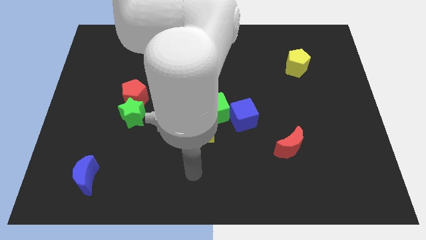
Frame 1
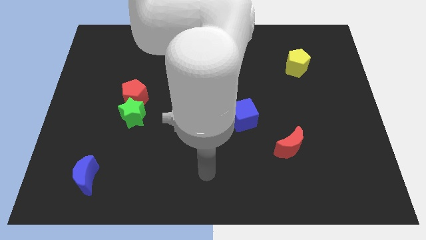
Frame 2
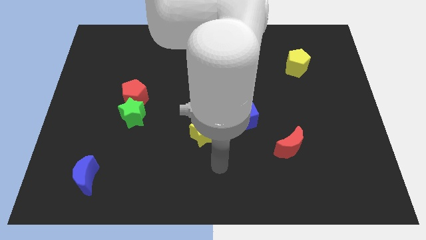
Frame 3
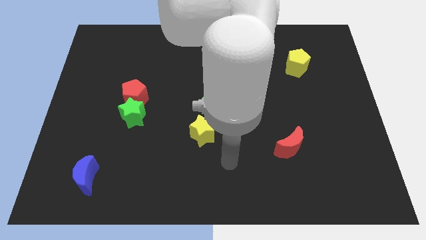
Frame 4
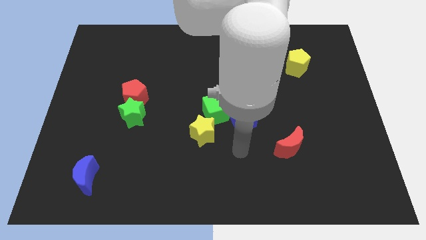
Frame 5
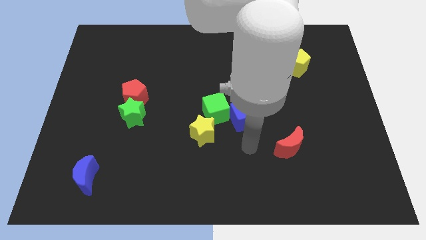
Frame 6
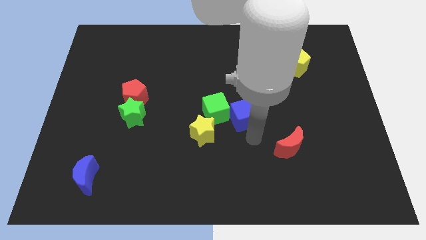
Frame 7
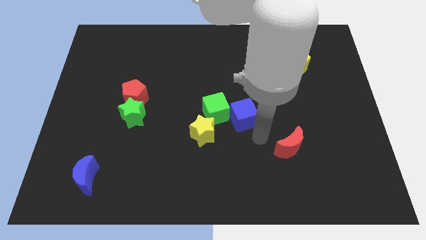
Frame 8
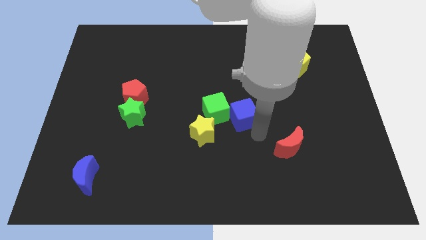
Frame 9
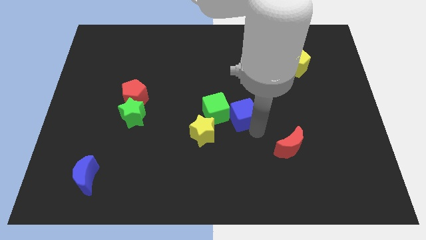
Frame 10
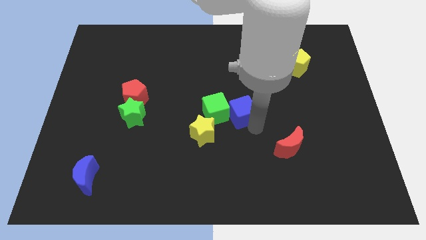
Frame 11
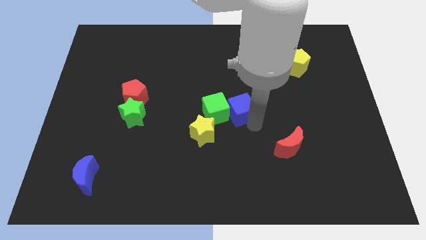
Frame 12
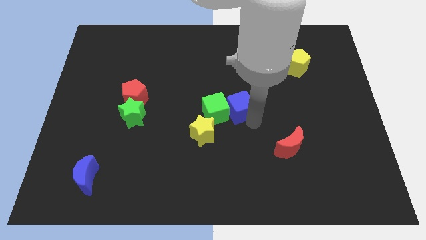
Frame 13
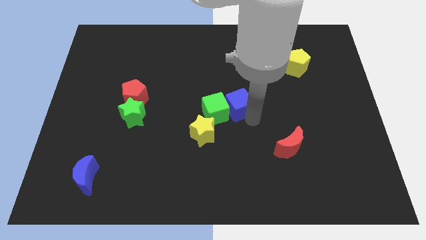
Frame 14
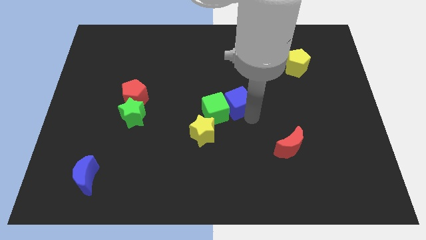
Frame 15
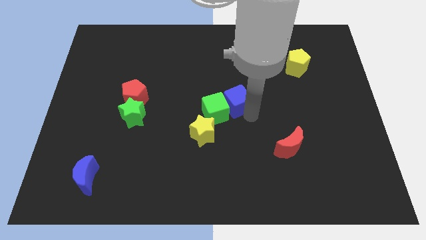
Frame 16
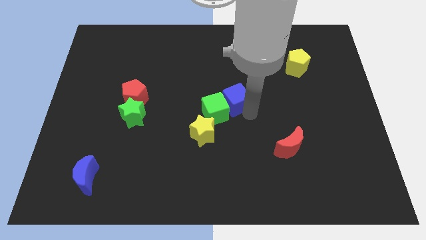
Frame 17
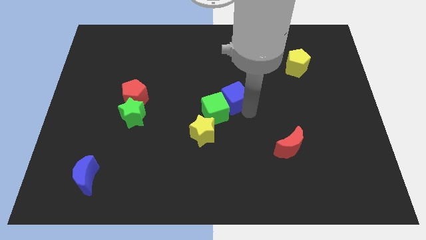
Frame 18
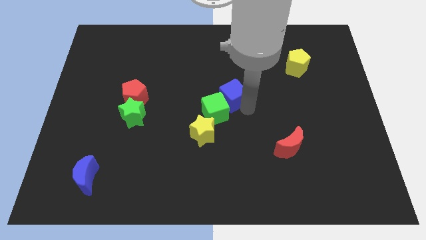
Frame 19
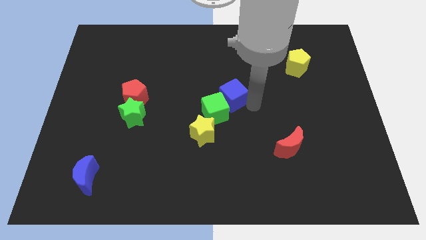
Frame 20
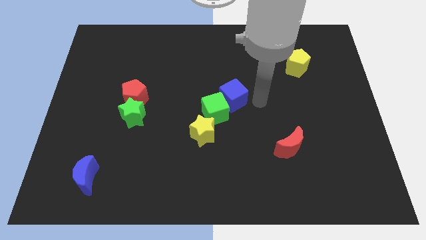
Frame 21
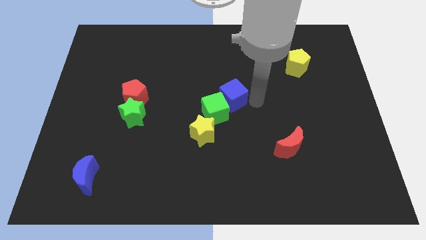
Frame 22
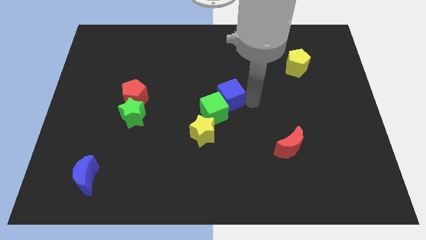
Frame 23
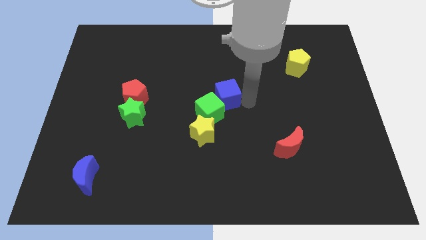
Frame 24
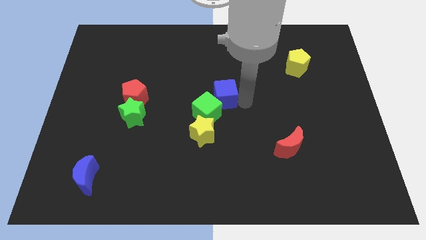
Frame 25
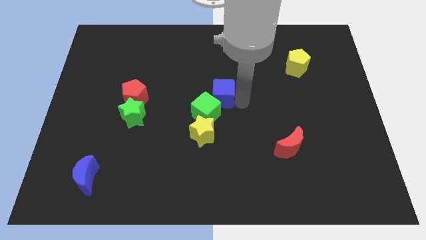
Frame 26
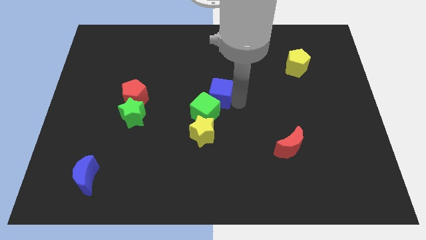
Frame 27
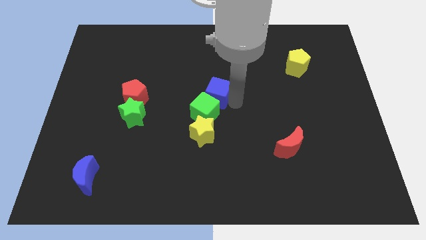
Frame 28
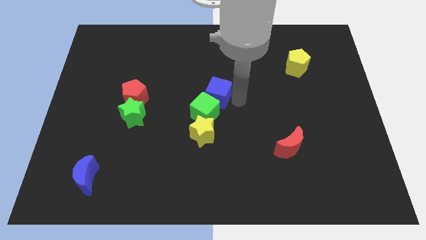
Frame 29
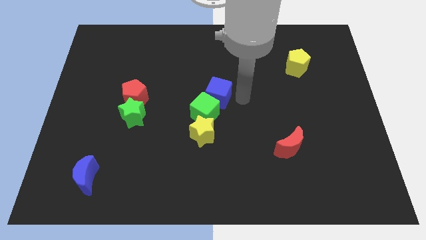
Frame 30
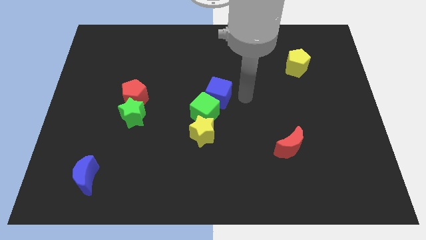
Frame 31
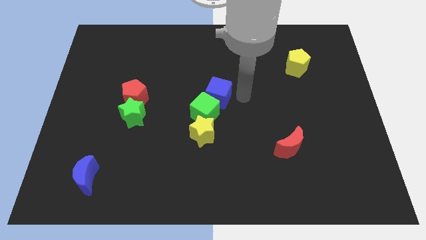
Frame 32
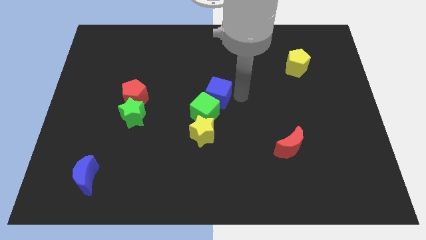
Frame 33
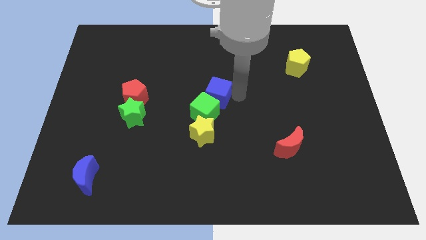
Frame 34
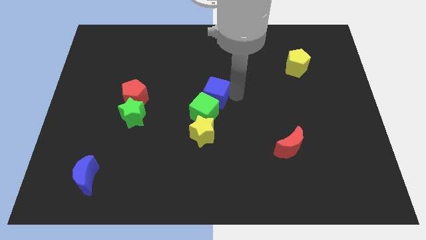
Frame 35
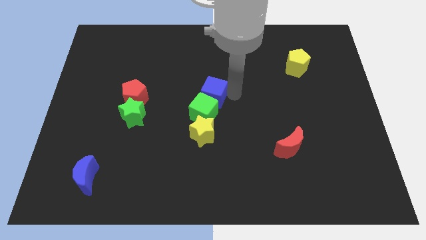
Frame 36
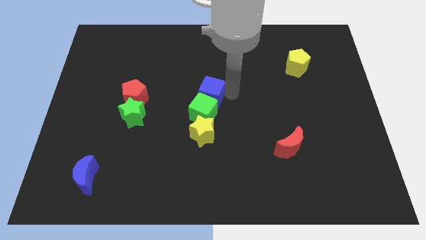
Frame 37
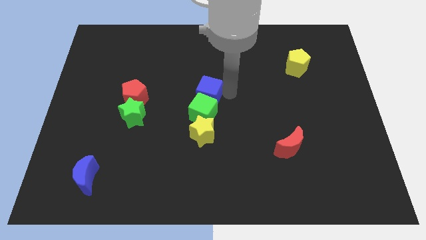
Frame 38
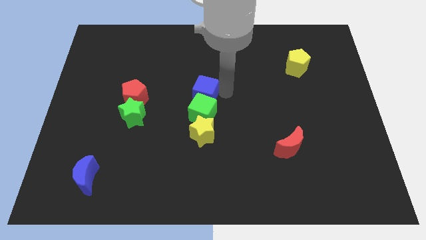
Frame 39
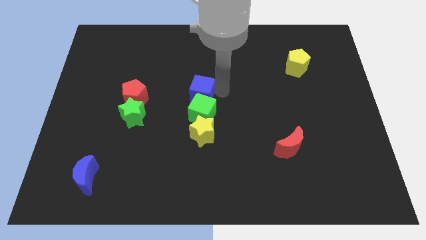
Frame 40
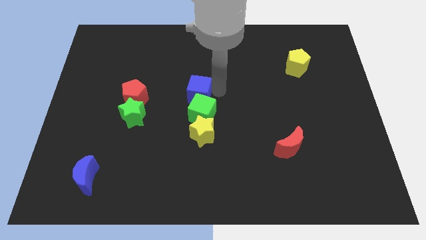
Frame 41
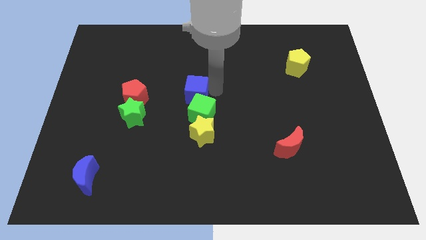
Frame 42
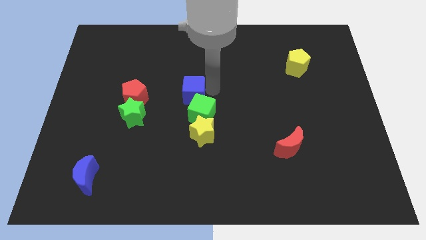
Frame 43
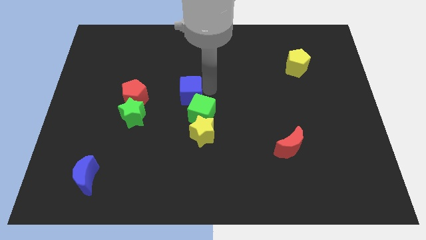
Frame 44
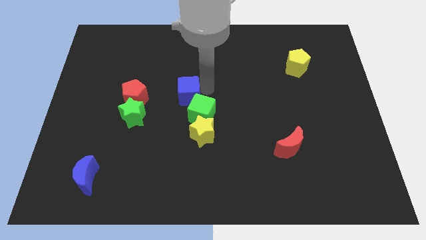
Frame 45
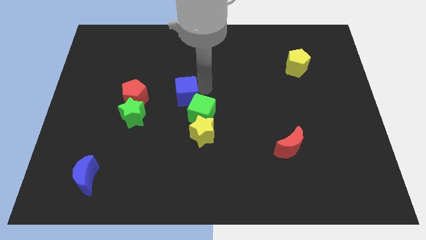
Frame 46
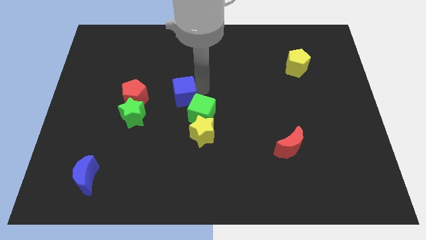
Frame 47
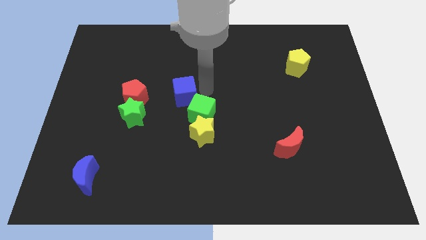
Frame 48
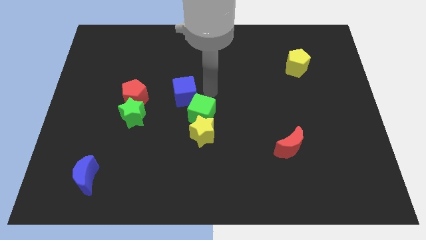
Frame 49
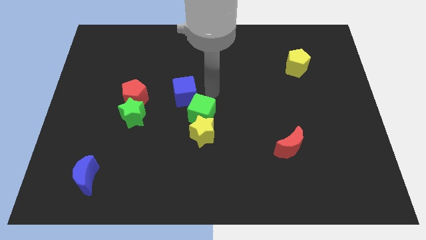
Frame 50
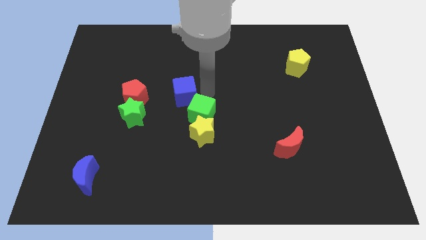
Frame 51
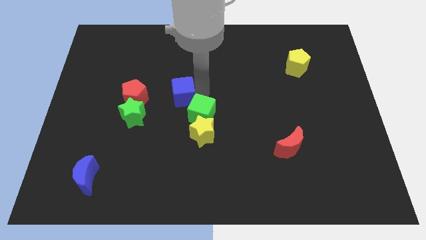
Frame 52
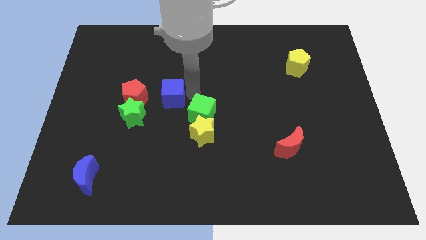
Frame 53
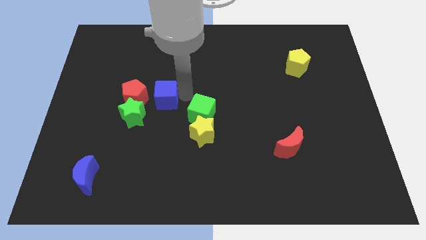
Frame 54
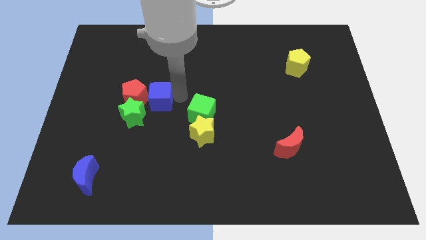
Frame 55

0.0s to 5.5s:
slide the blue cube next to the red pentagon
